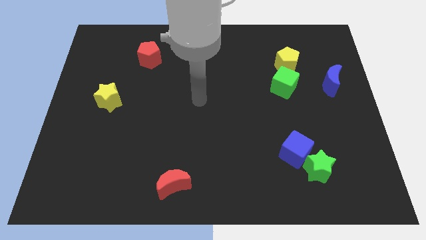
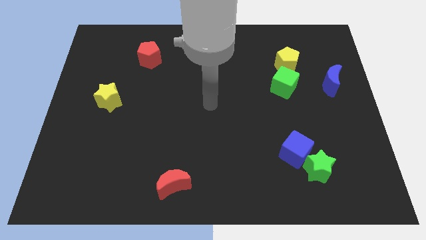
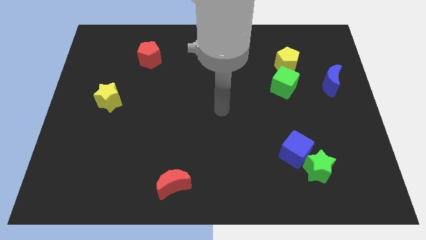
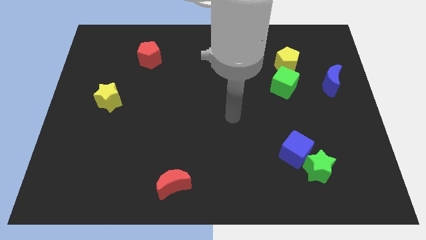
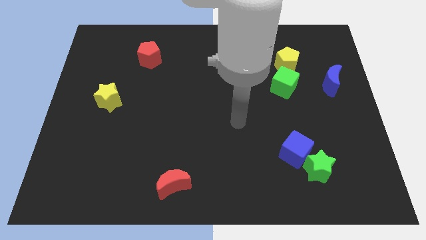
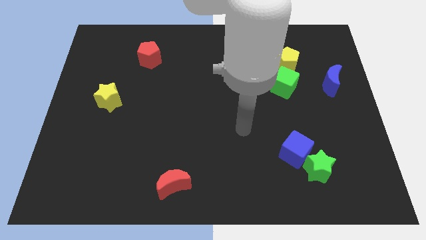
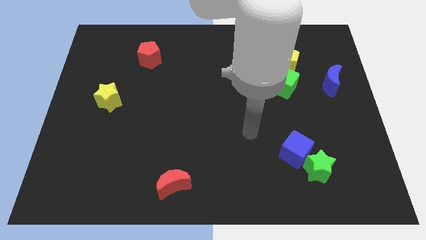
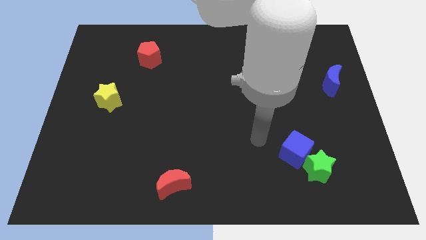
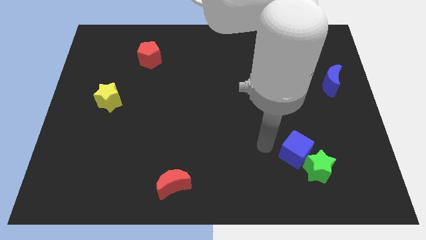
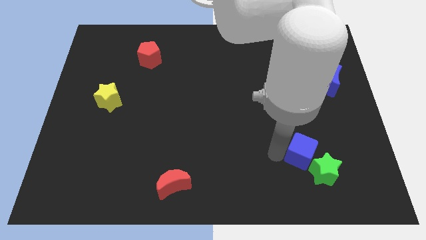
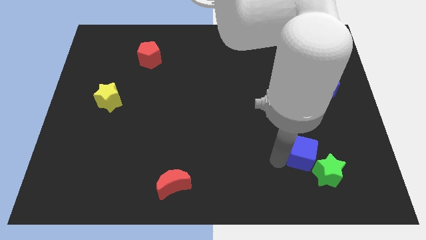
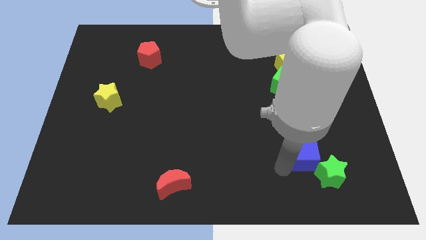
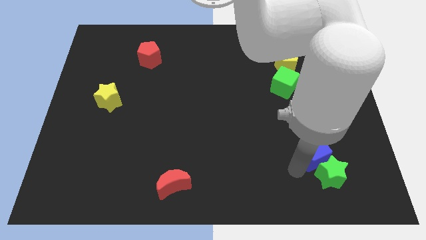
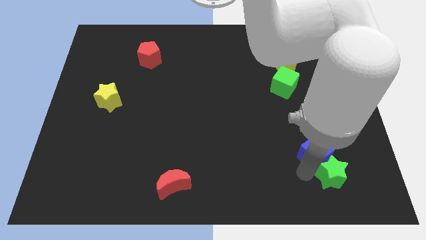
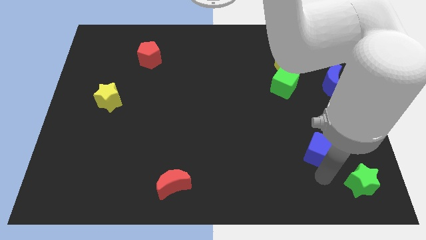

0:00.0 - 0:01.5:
move the blue cube away from the green star

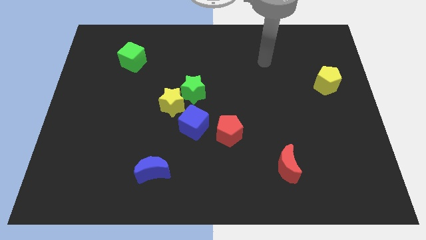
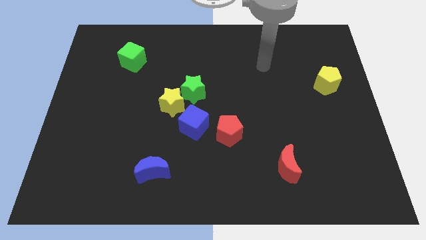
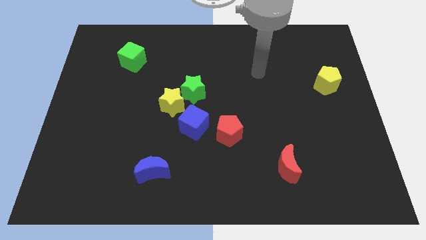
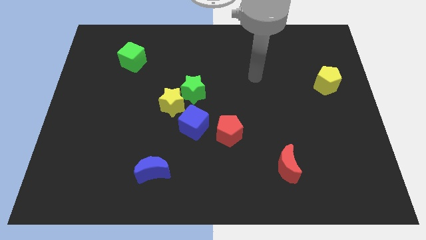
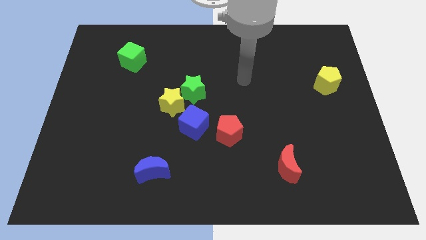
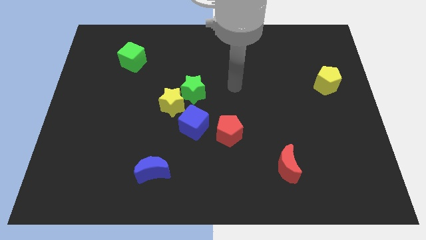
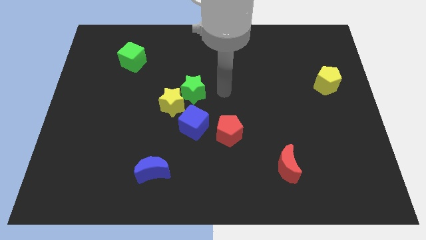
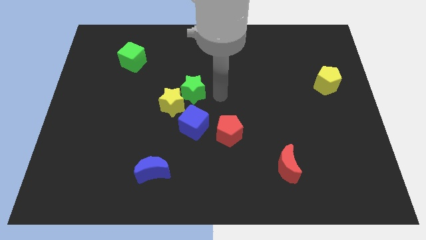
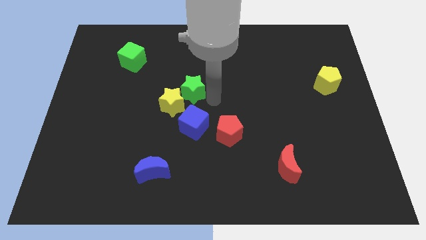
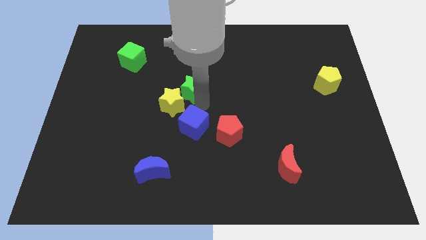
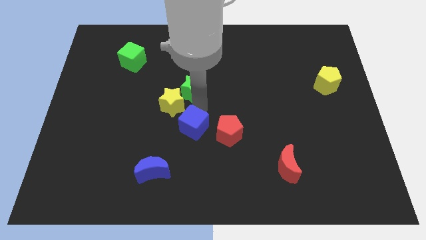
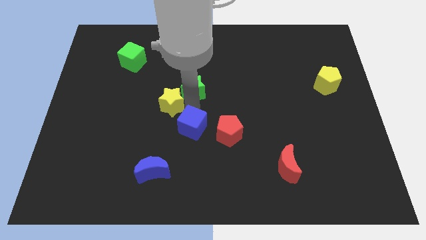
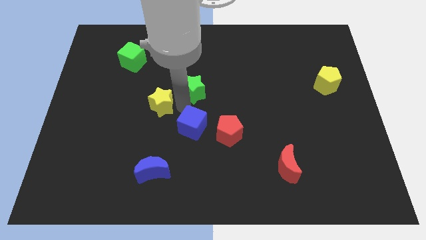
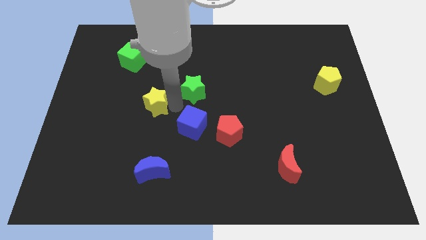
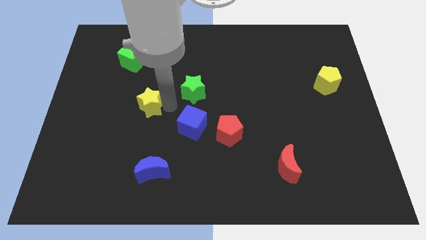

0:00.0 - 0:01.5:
separate the yellow star from the green star and blue cube

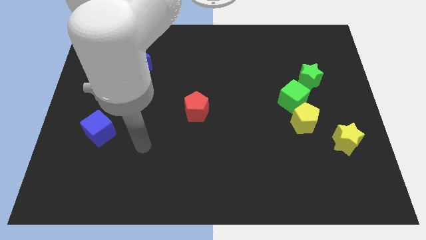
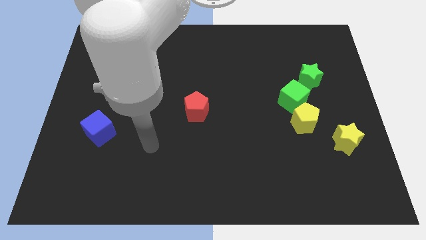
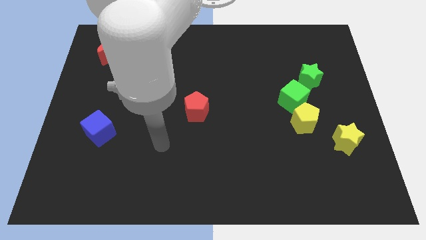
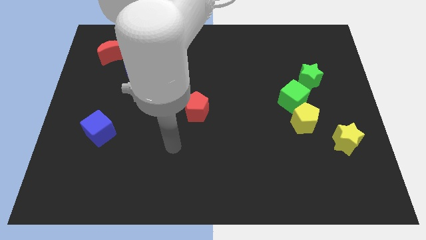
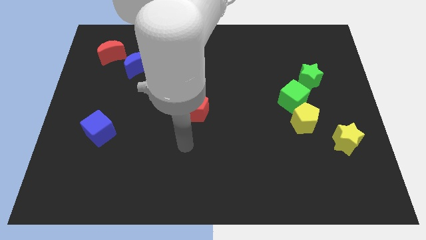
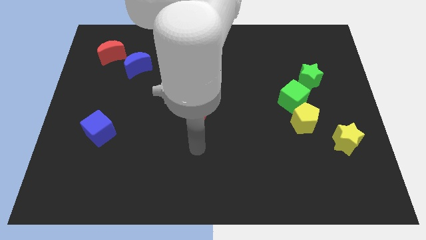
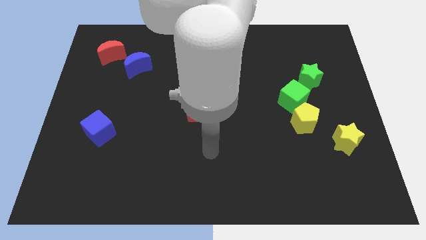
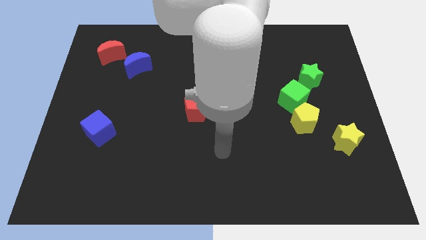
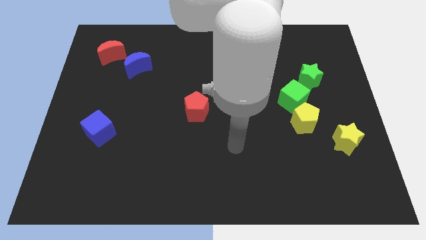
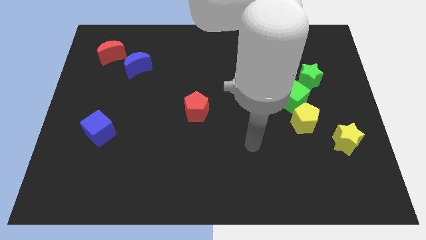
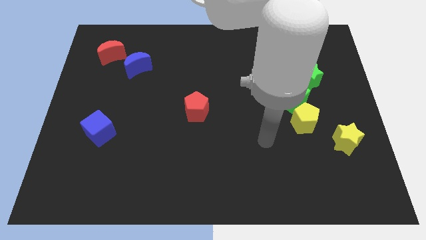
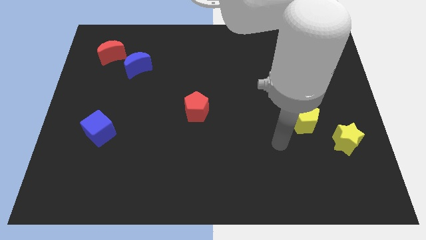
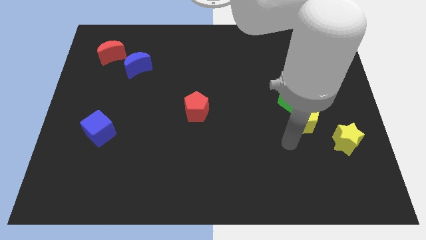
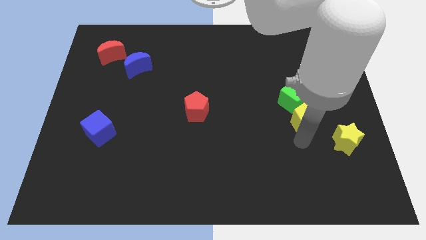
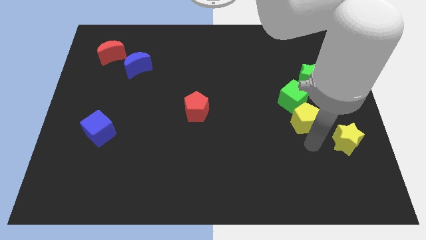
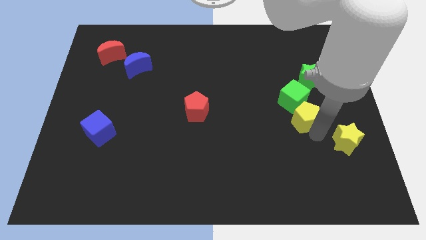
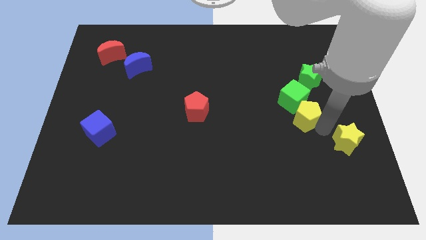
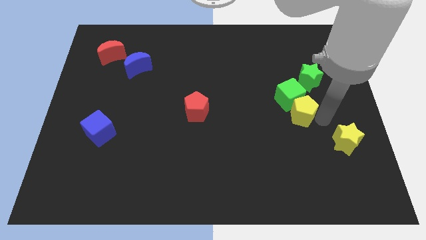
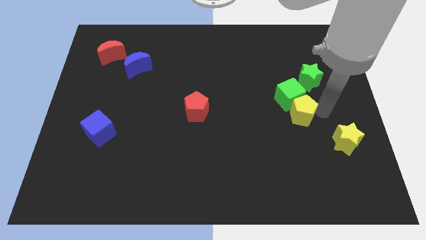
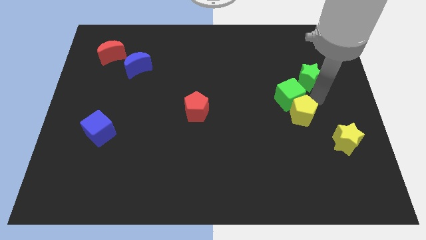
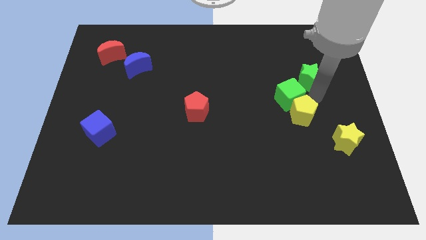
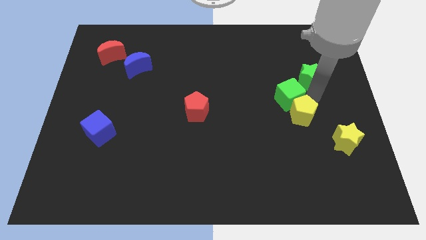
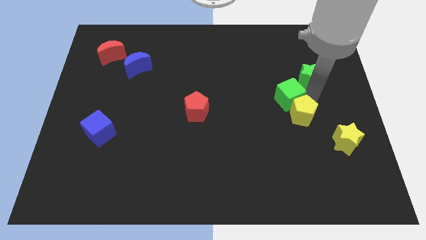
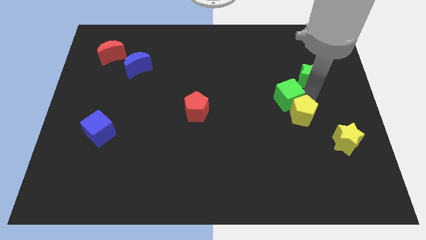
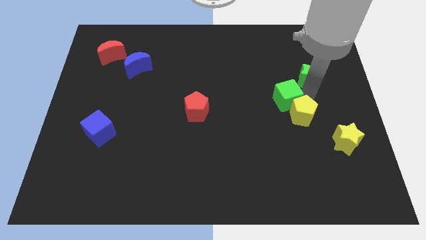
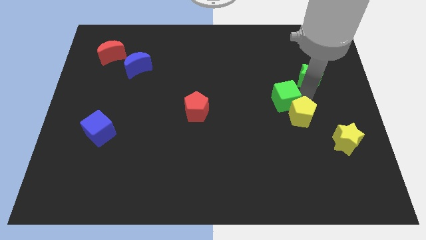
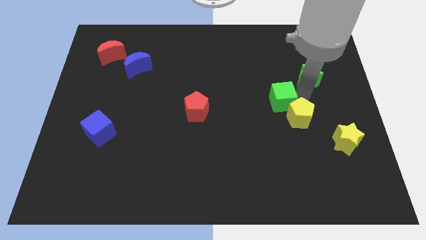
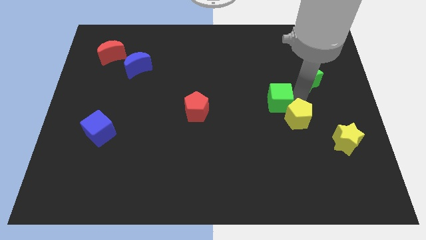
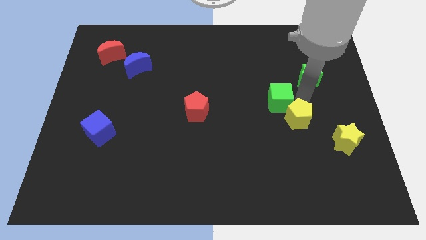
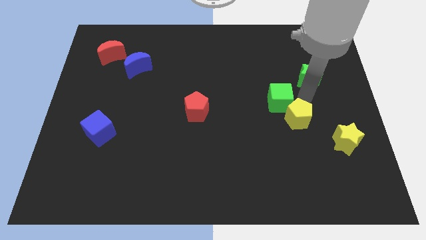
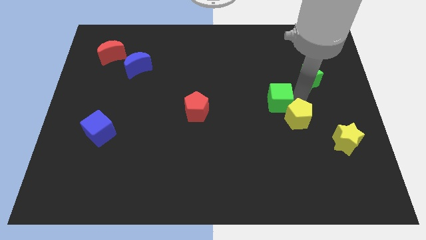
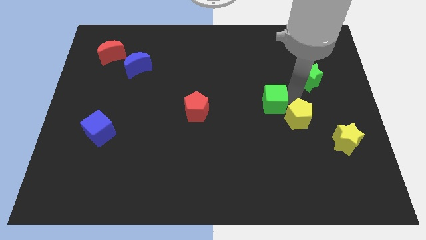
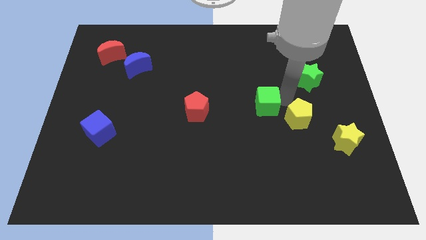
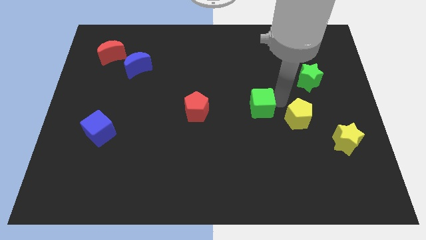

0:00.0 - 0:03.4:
move the green cube away from the yellow pentagon and green star

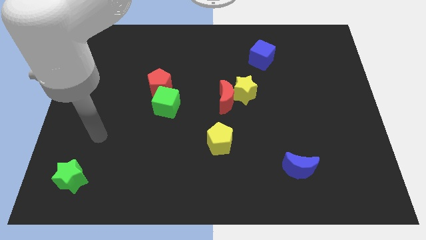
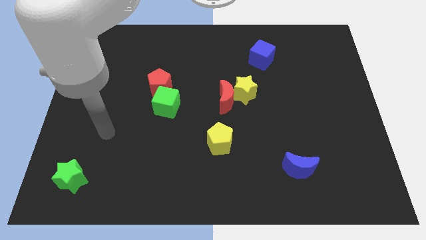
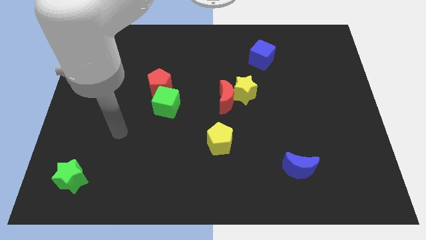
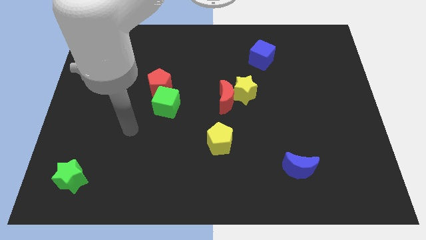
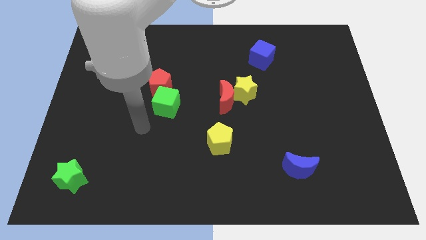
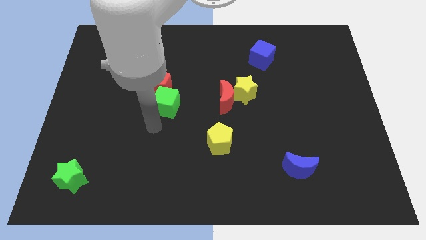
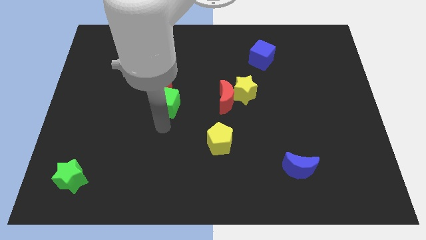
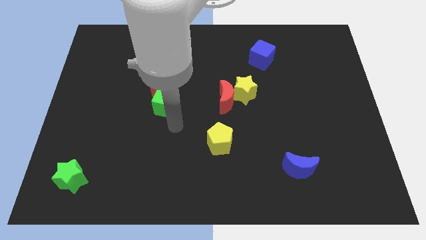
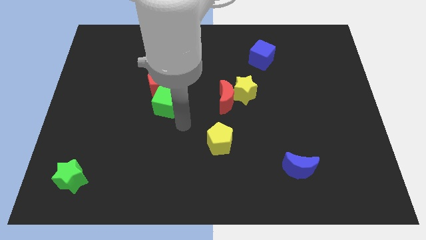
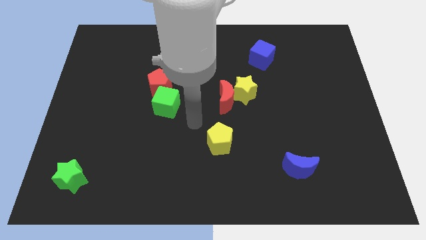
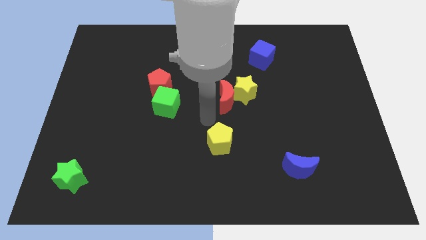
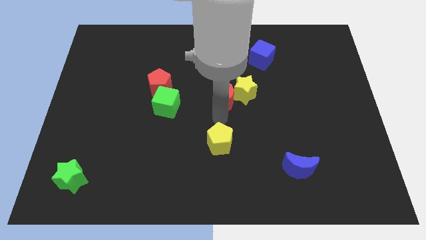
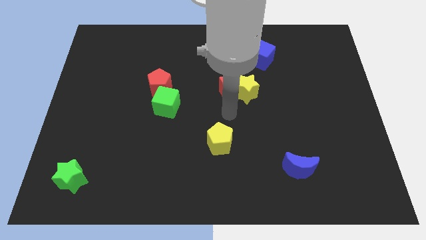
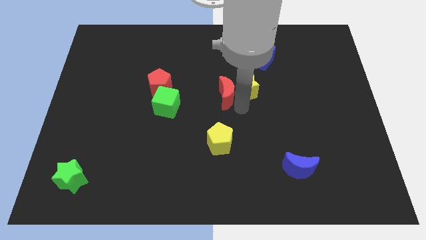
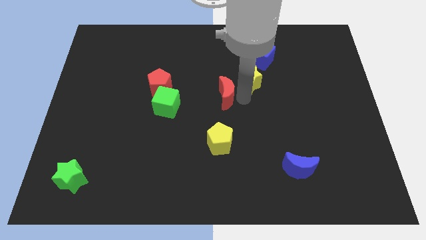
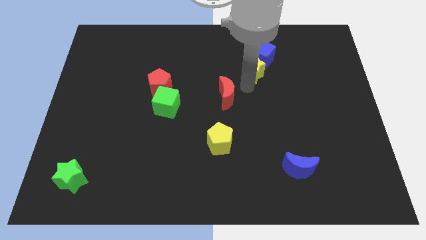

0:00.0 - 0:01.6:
move the red moon away from the yellow star

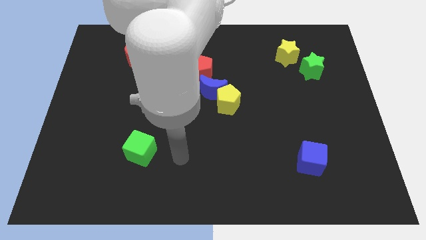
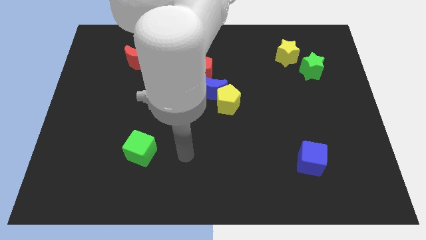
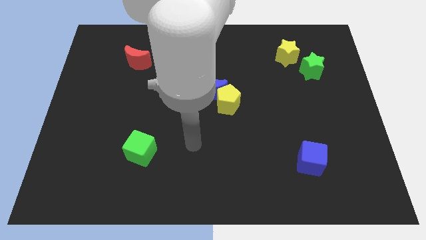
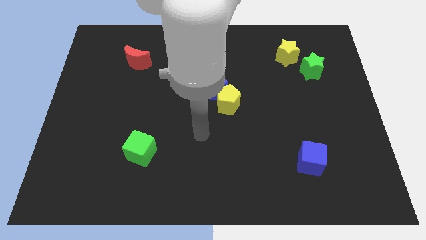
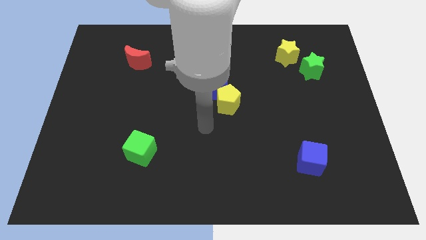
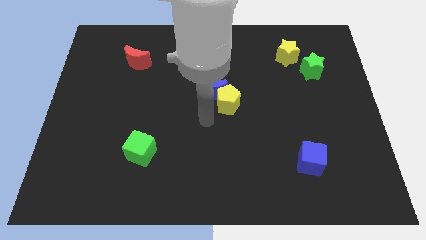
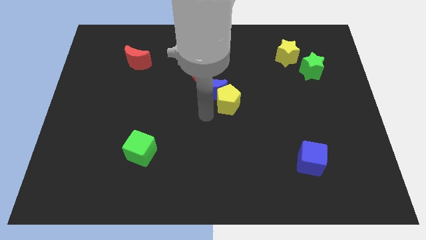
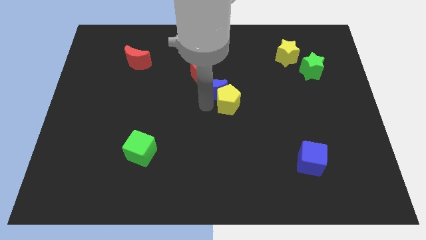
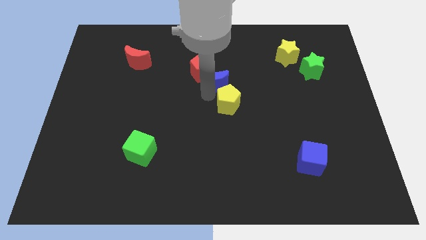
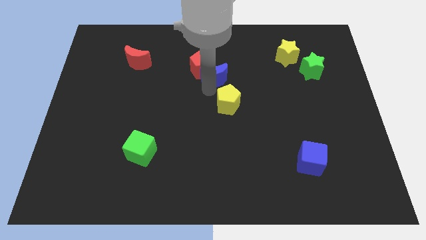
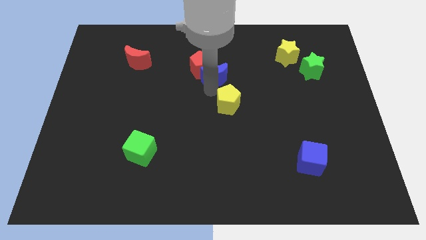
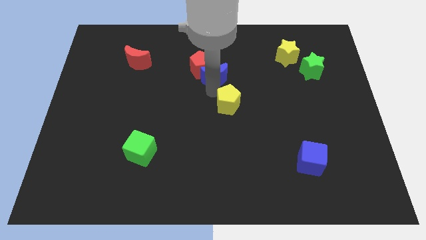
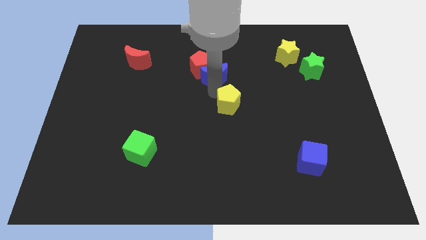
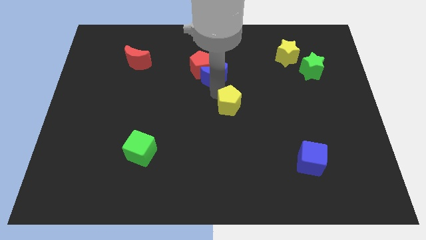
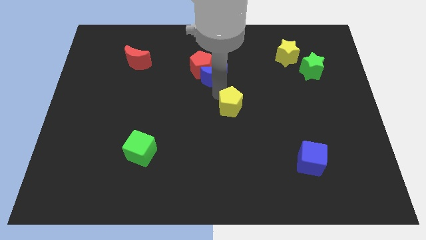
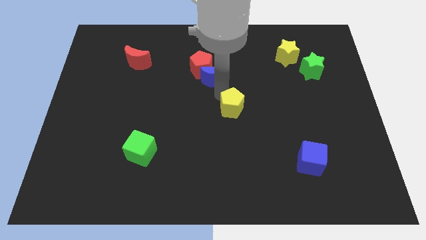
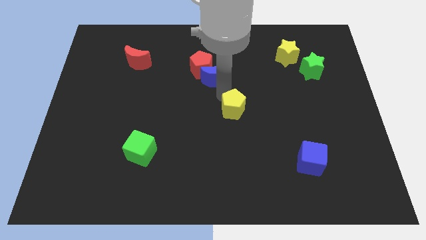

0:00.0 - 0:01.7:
pull the yellow pentagon apart from the blue moon
